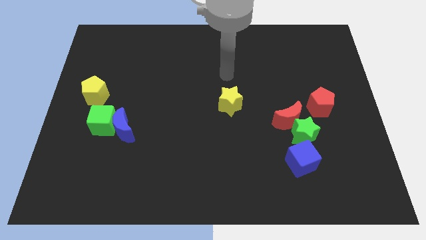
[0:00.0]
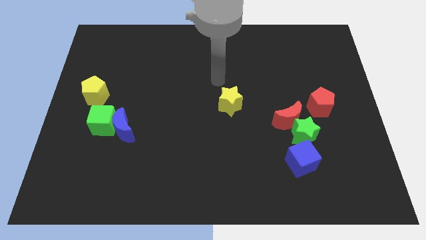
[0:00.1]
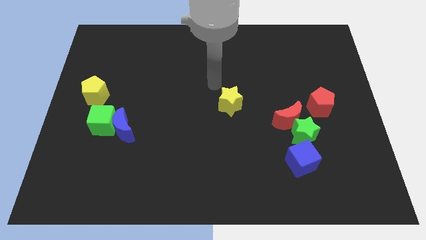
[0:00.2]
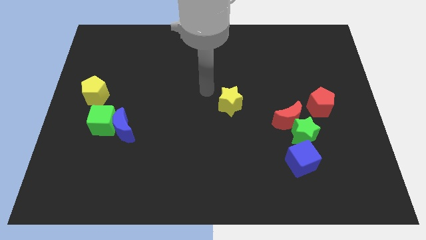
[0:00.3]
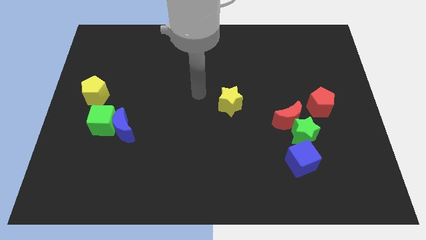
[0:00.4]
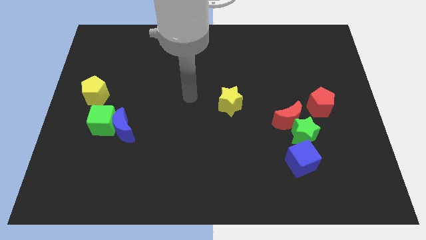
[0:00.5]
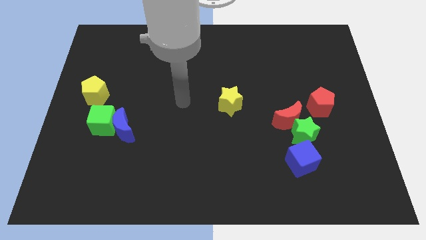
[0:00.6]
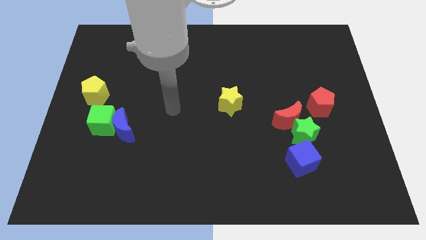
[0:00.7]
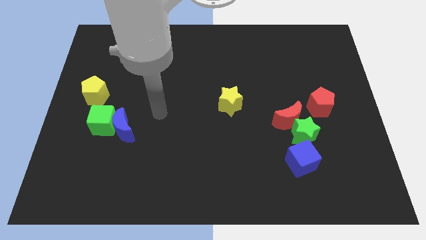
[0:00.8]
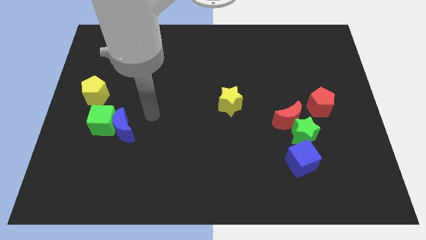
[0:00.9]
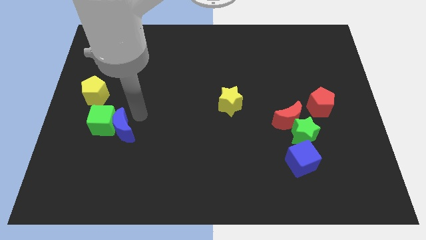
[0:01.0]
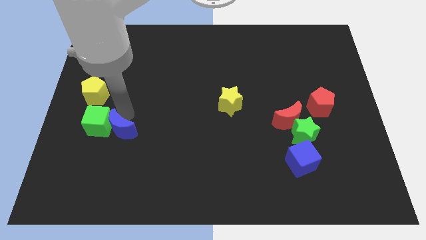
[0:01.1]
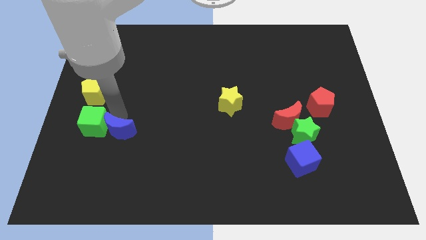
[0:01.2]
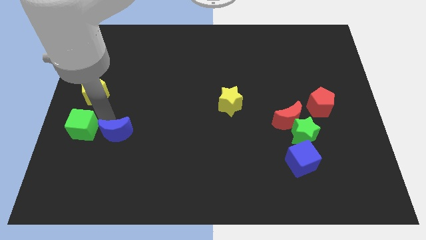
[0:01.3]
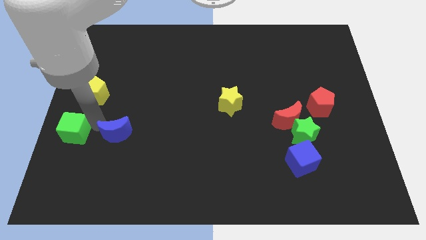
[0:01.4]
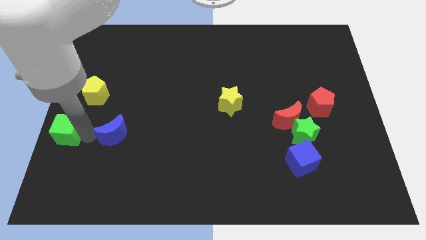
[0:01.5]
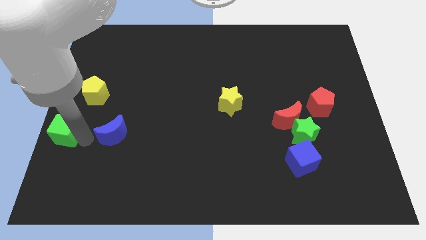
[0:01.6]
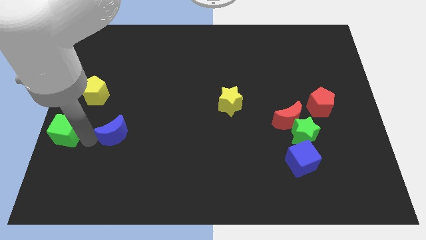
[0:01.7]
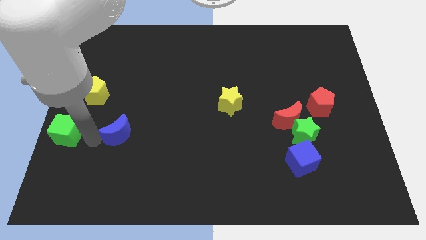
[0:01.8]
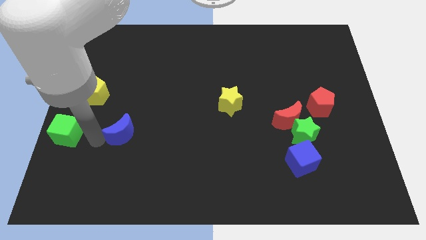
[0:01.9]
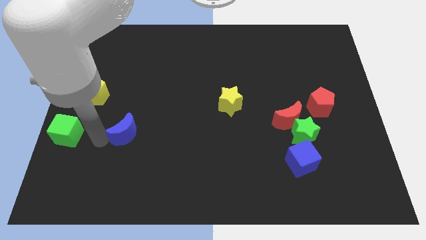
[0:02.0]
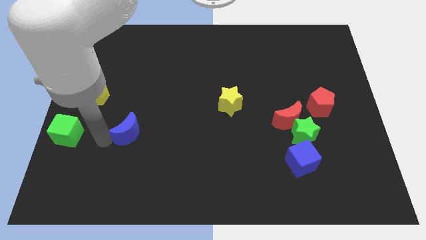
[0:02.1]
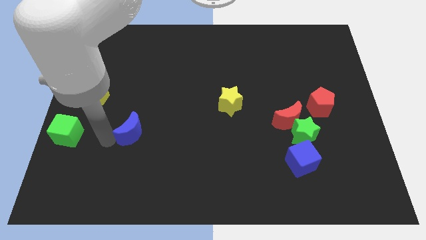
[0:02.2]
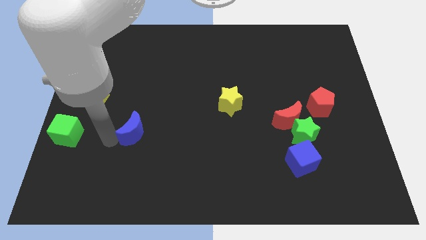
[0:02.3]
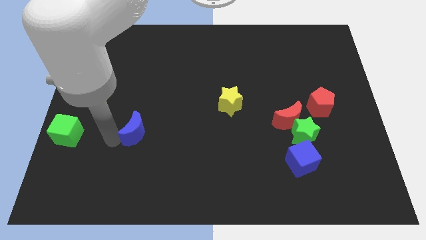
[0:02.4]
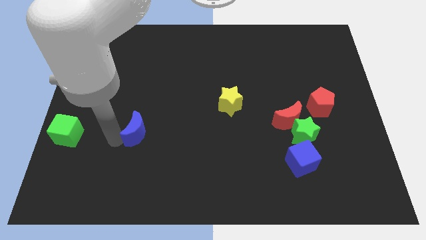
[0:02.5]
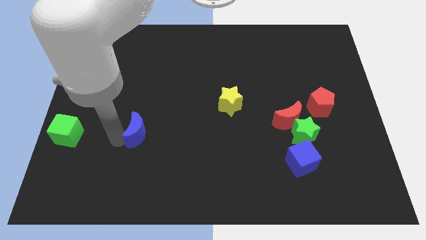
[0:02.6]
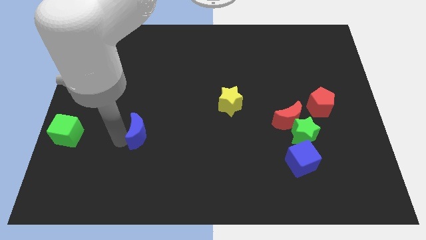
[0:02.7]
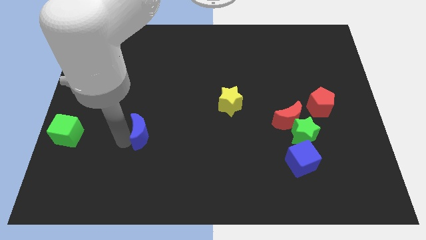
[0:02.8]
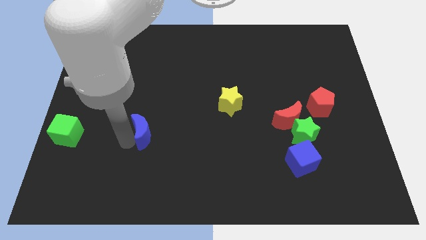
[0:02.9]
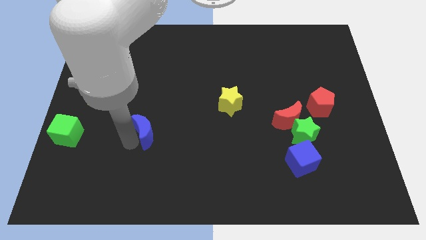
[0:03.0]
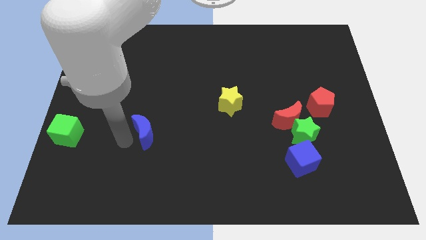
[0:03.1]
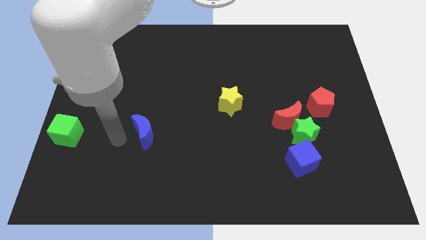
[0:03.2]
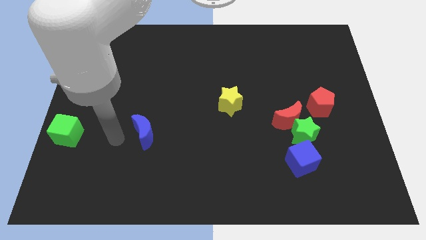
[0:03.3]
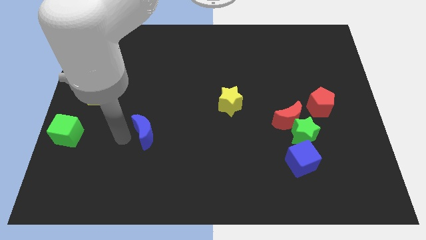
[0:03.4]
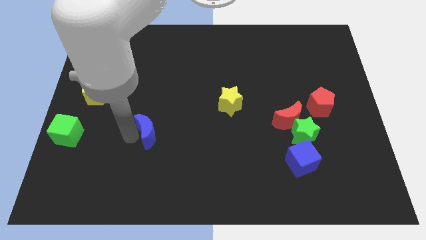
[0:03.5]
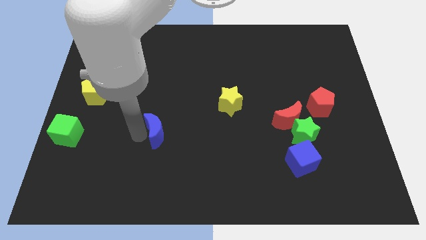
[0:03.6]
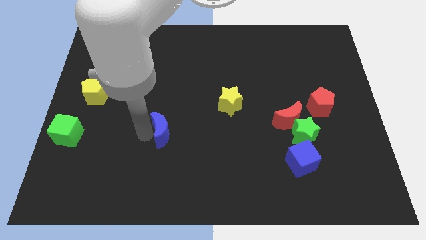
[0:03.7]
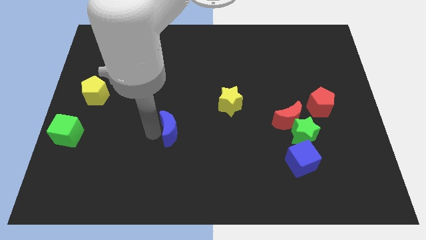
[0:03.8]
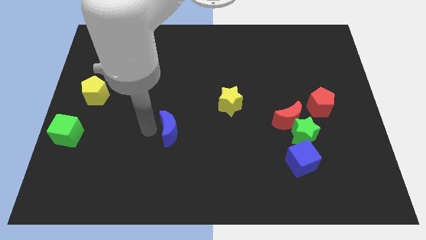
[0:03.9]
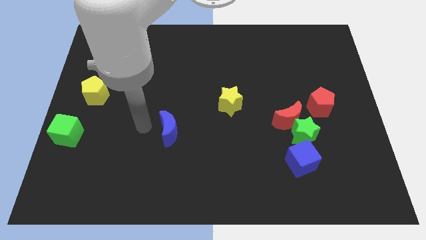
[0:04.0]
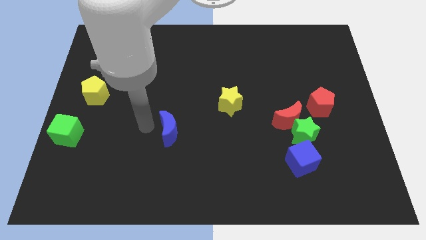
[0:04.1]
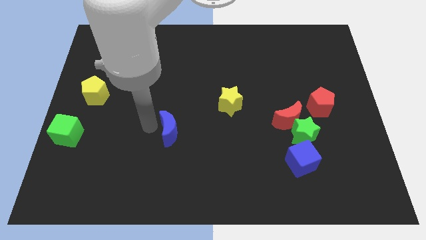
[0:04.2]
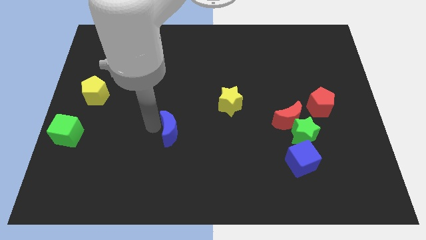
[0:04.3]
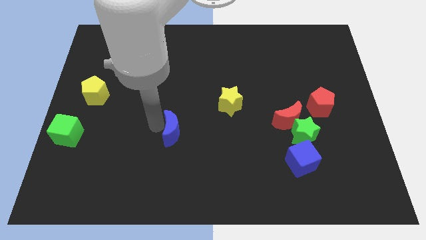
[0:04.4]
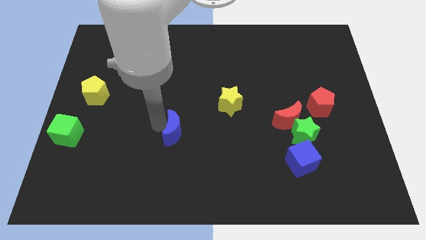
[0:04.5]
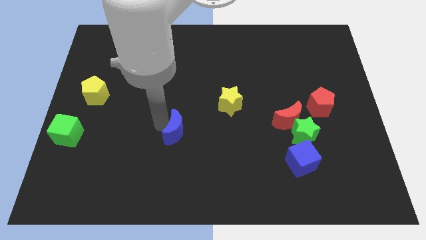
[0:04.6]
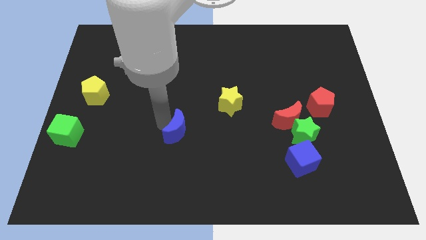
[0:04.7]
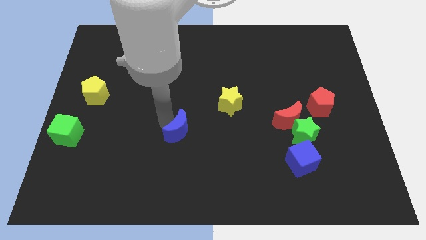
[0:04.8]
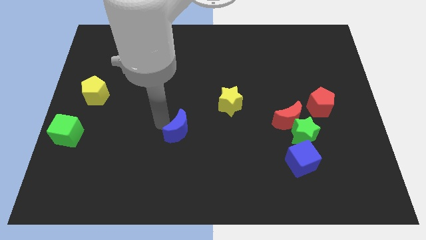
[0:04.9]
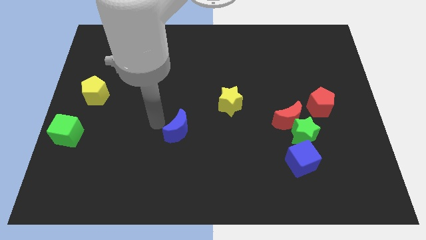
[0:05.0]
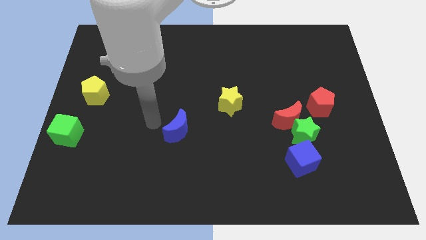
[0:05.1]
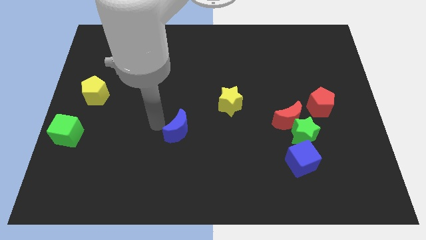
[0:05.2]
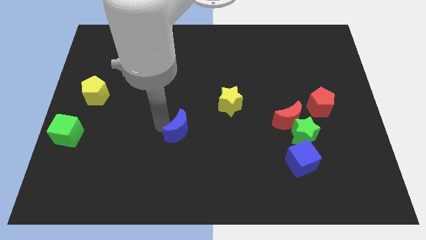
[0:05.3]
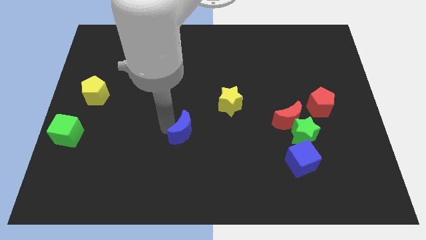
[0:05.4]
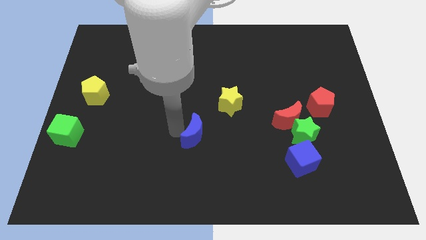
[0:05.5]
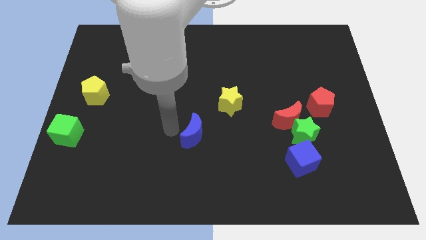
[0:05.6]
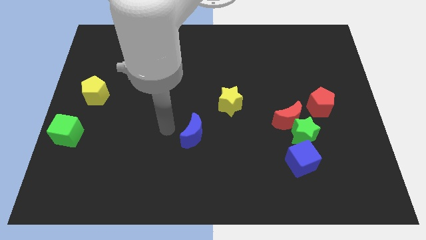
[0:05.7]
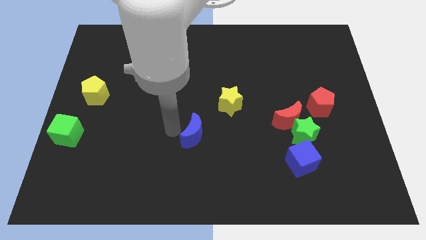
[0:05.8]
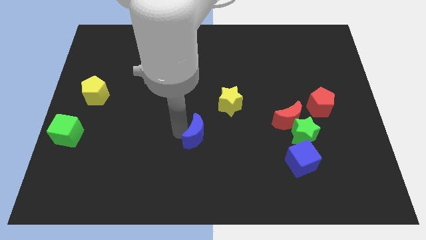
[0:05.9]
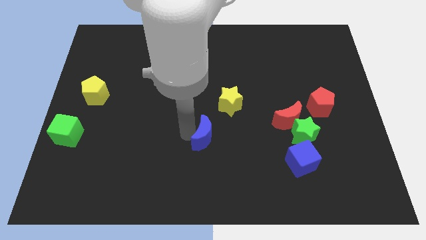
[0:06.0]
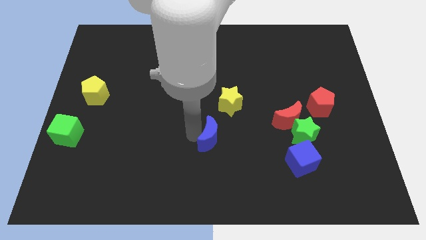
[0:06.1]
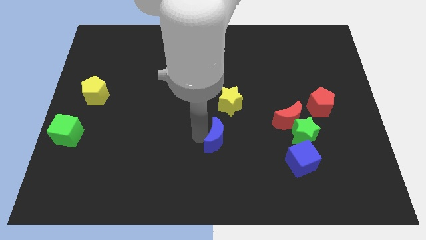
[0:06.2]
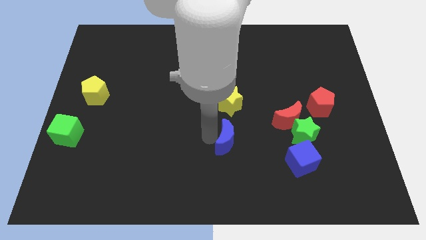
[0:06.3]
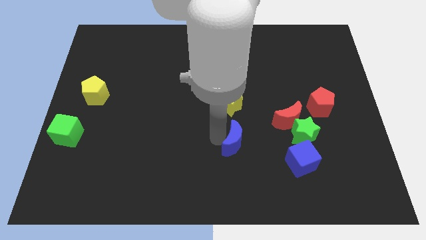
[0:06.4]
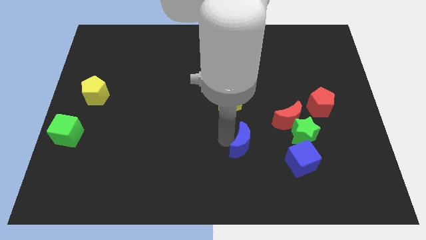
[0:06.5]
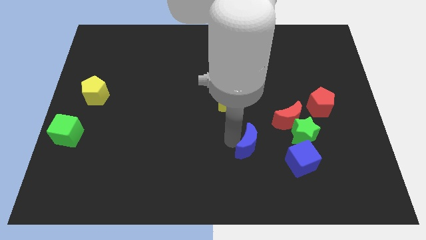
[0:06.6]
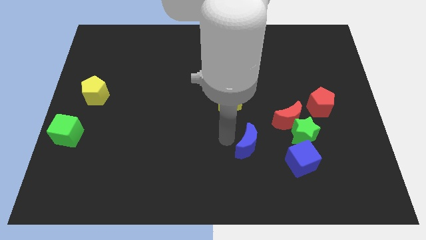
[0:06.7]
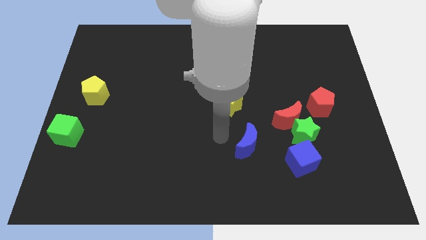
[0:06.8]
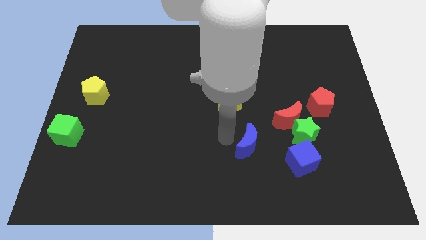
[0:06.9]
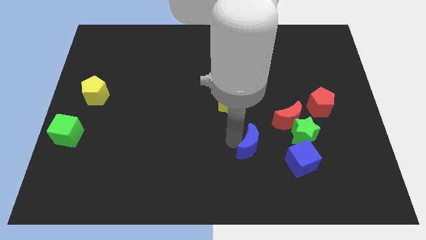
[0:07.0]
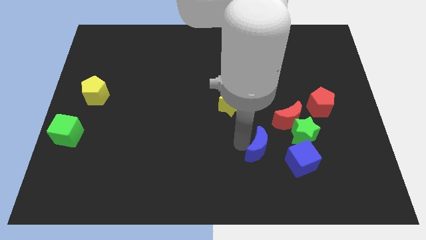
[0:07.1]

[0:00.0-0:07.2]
slide the blue moon to the bottom left side of the green star
